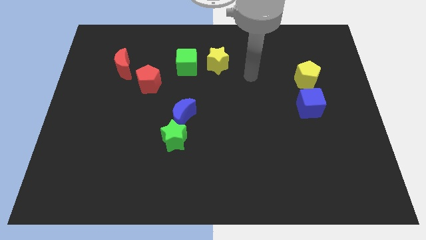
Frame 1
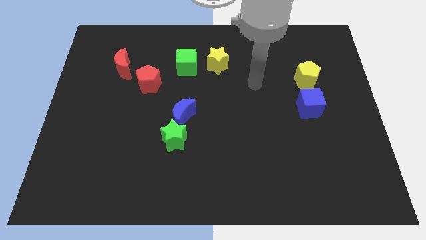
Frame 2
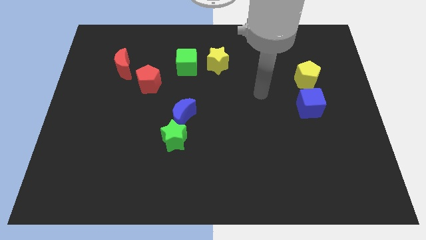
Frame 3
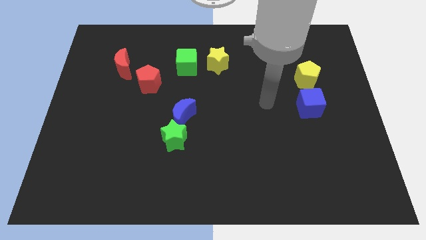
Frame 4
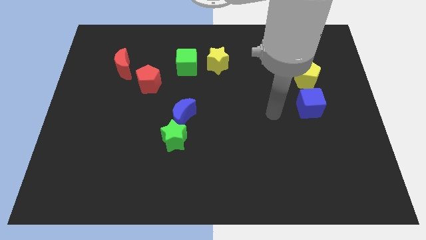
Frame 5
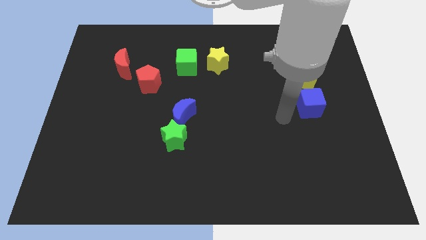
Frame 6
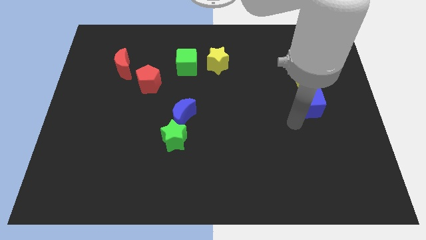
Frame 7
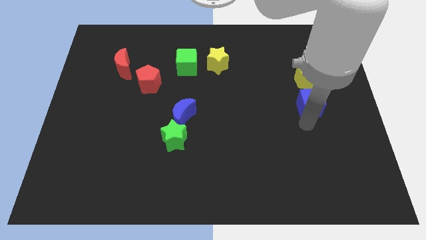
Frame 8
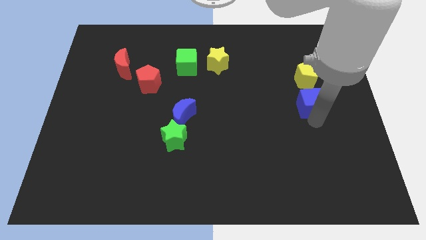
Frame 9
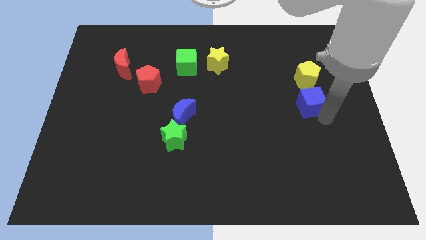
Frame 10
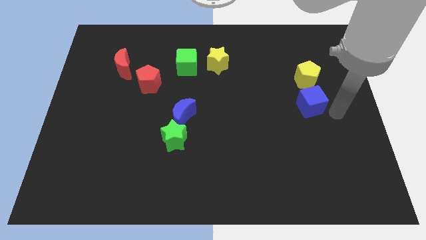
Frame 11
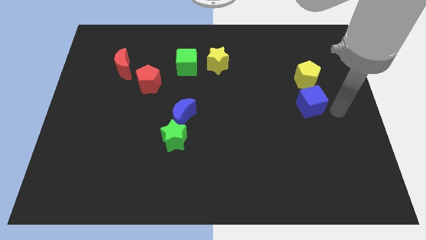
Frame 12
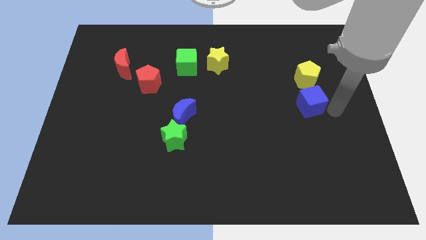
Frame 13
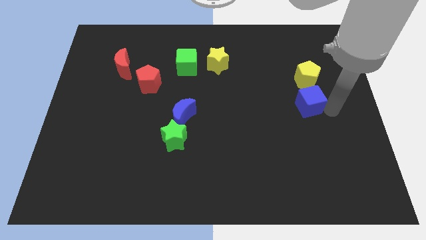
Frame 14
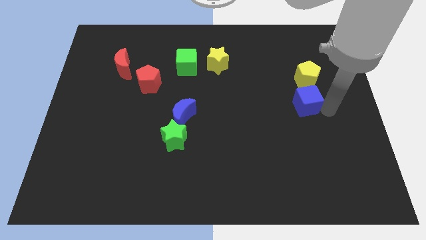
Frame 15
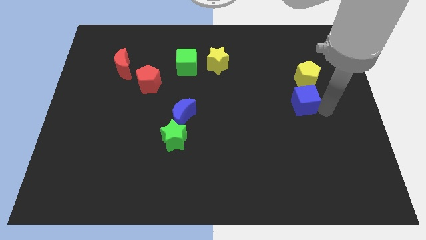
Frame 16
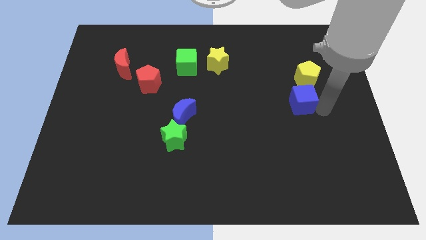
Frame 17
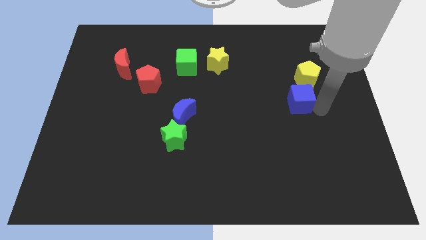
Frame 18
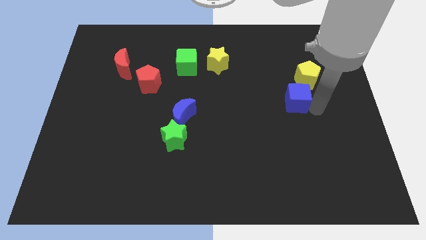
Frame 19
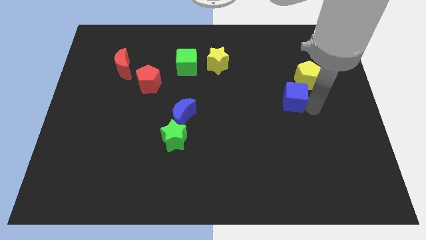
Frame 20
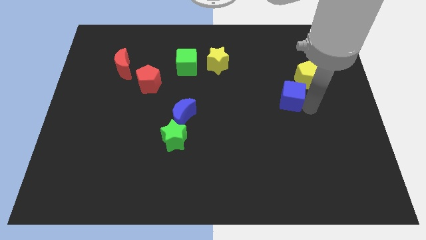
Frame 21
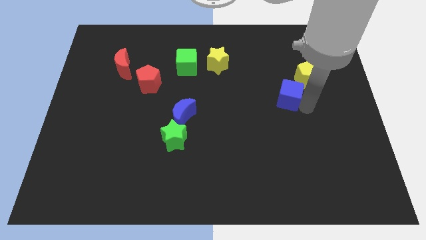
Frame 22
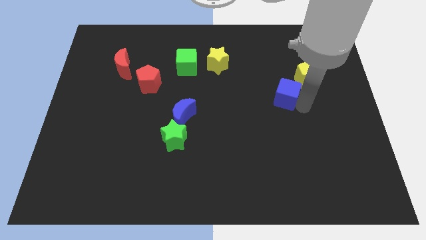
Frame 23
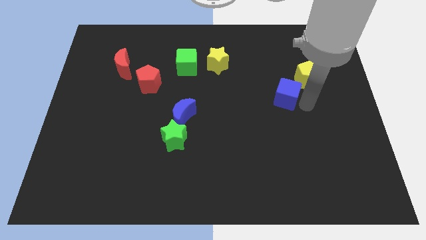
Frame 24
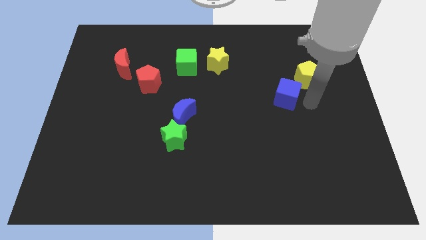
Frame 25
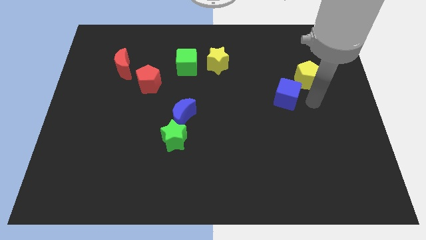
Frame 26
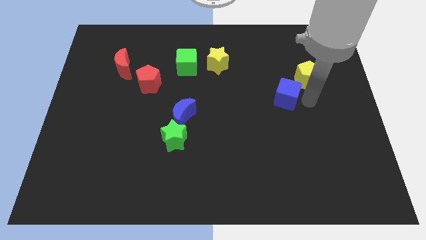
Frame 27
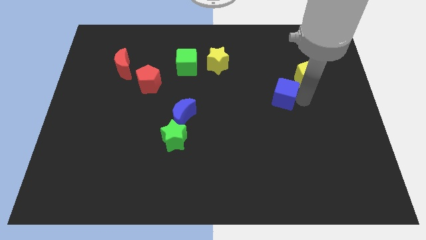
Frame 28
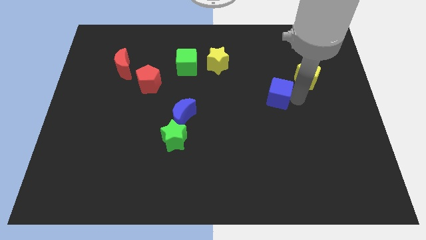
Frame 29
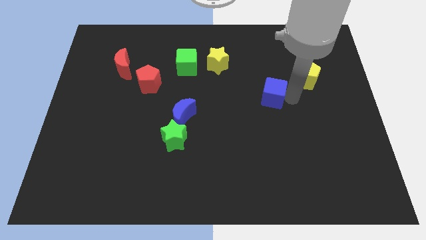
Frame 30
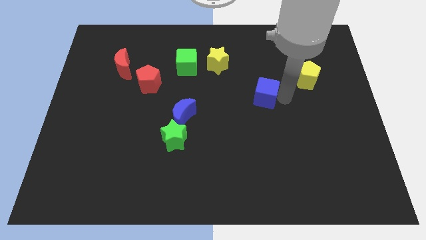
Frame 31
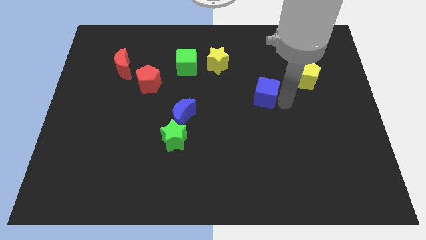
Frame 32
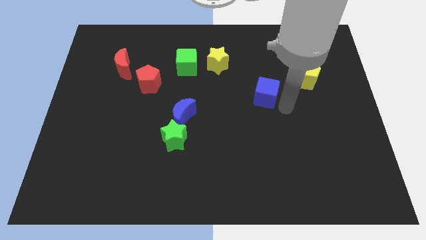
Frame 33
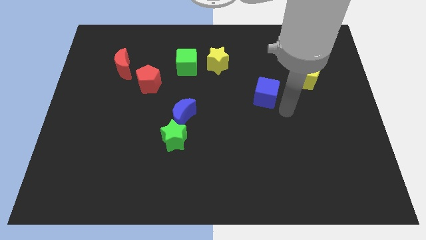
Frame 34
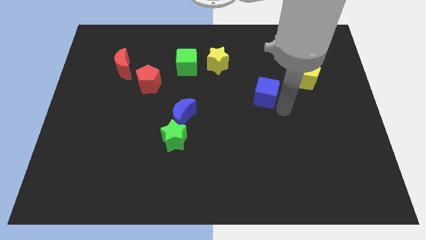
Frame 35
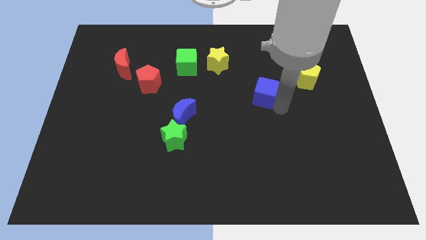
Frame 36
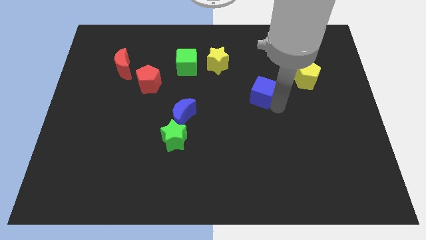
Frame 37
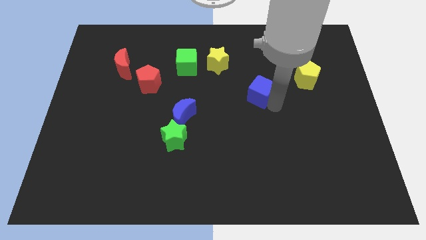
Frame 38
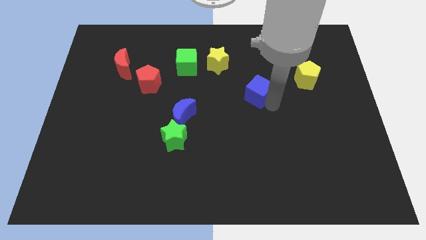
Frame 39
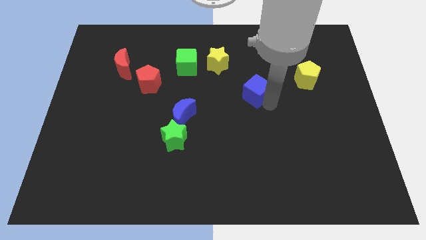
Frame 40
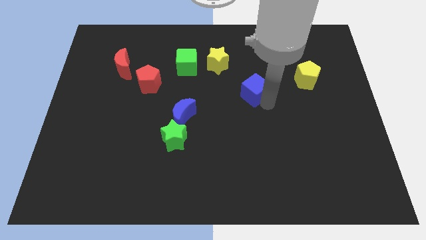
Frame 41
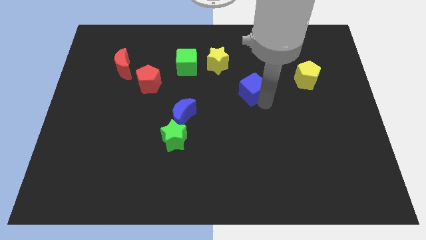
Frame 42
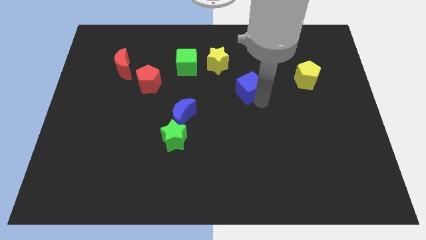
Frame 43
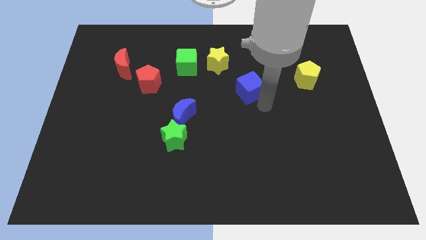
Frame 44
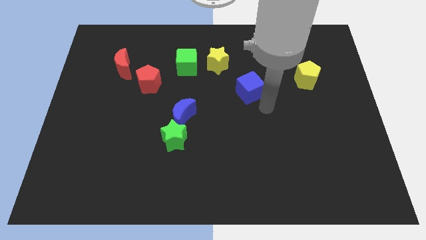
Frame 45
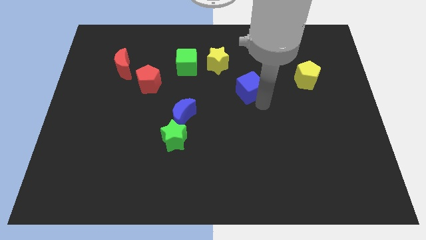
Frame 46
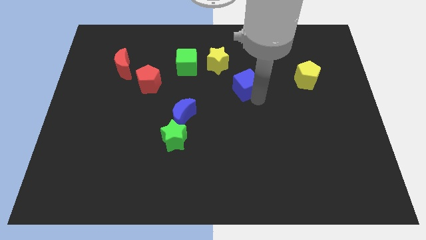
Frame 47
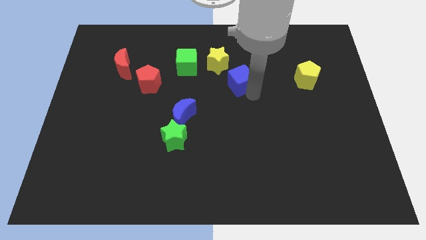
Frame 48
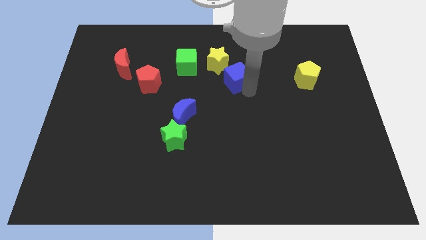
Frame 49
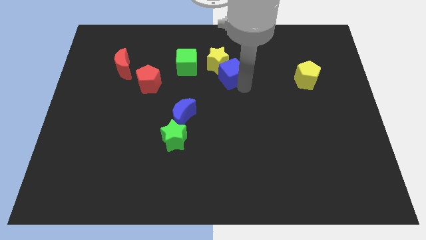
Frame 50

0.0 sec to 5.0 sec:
push the blue cube towards the yellow star

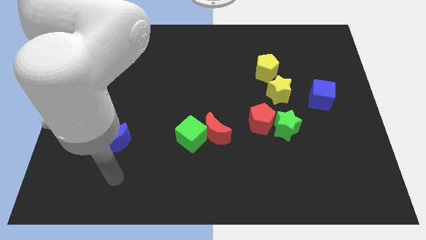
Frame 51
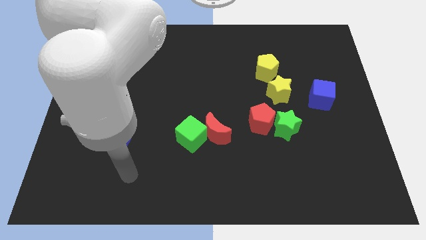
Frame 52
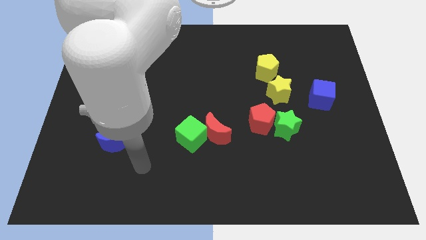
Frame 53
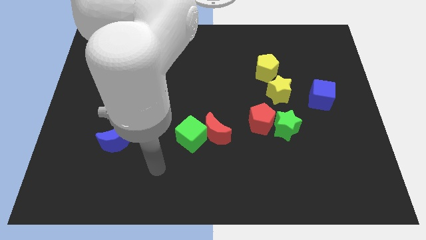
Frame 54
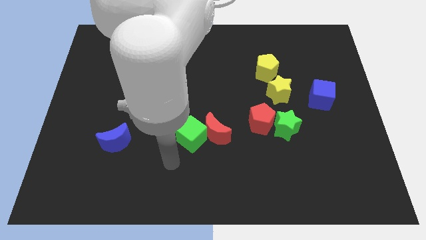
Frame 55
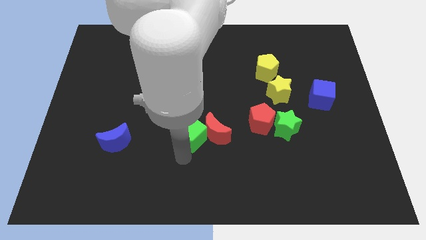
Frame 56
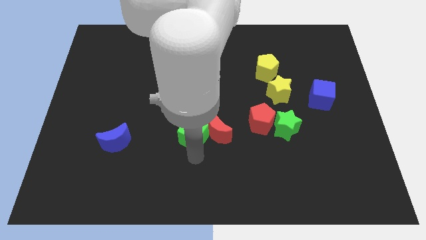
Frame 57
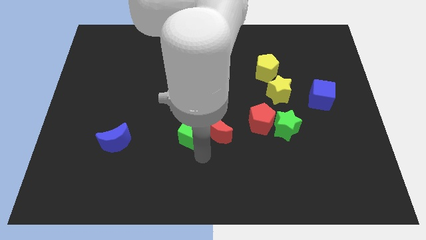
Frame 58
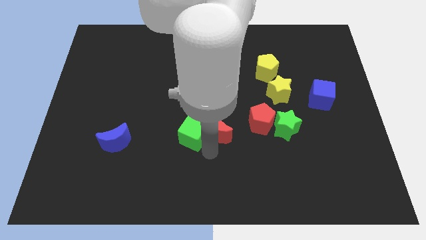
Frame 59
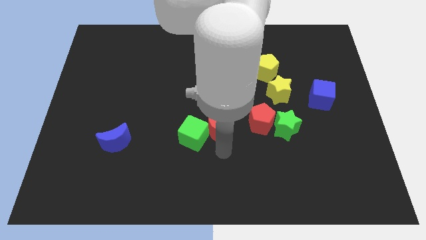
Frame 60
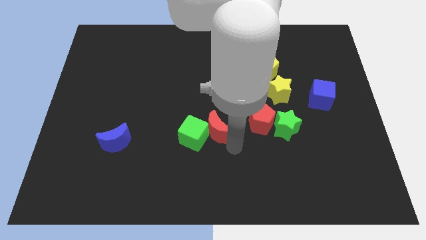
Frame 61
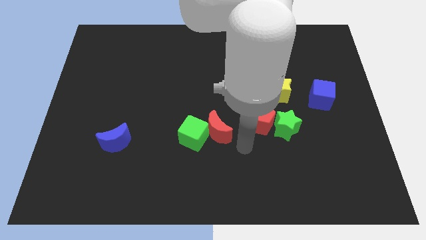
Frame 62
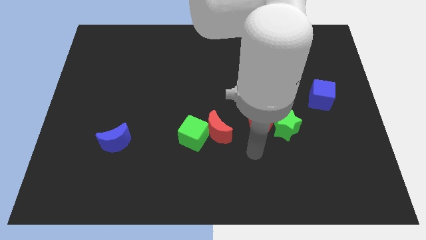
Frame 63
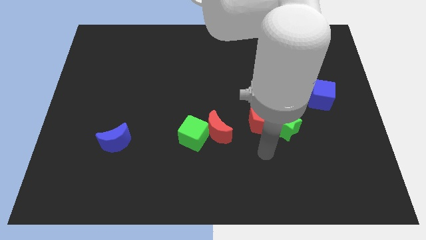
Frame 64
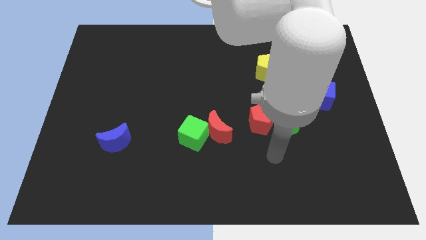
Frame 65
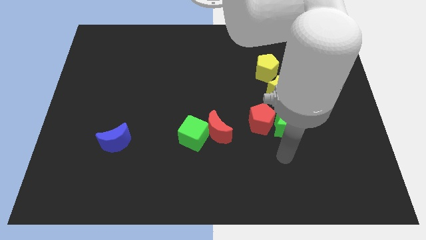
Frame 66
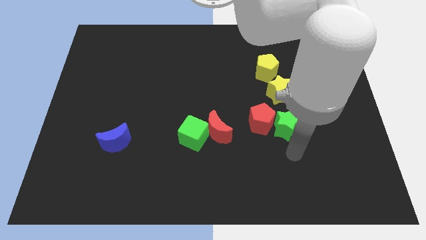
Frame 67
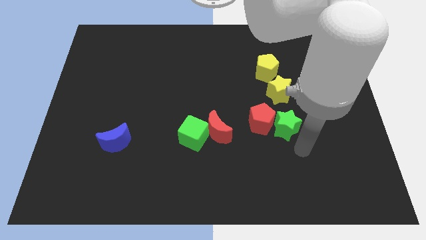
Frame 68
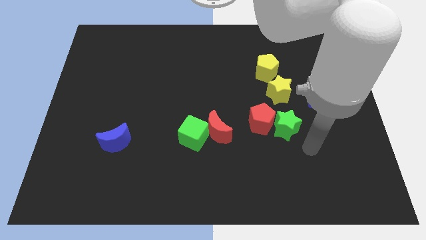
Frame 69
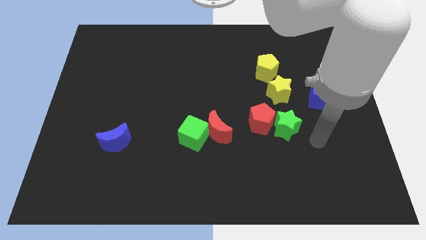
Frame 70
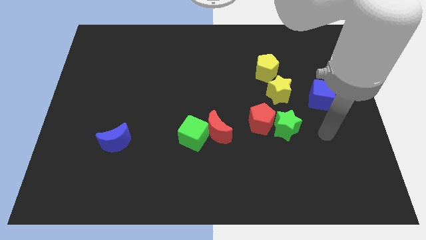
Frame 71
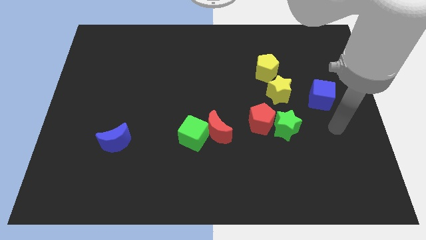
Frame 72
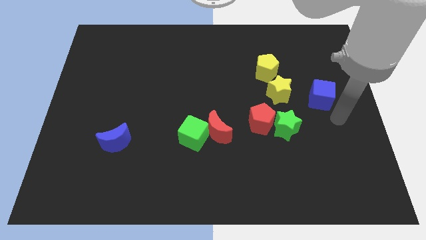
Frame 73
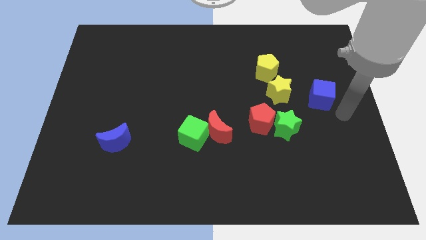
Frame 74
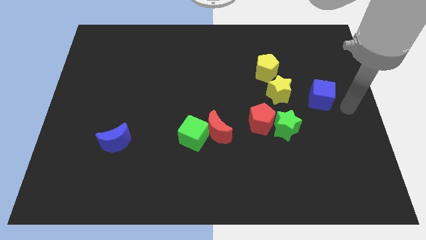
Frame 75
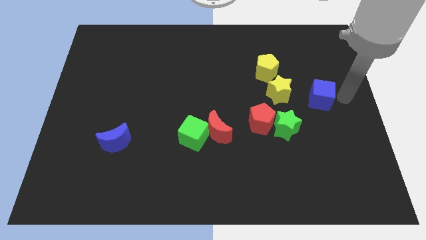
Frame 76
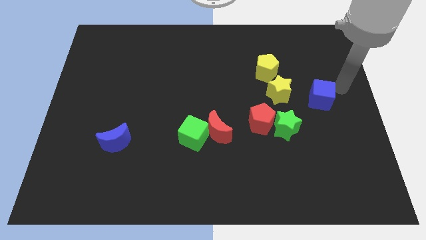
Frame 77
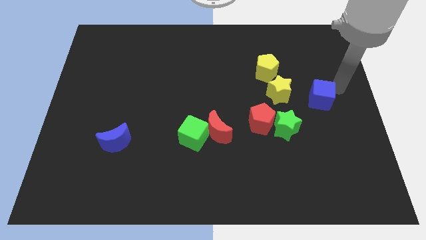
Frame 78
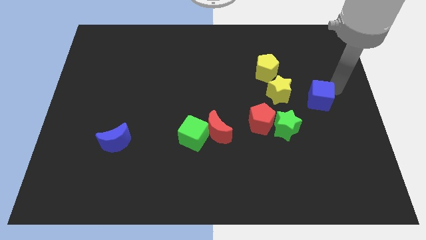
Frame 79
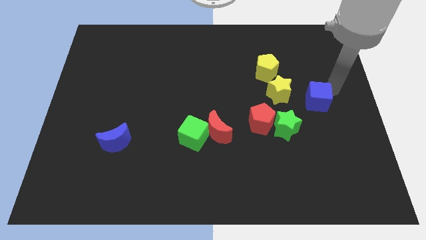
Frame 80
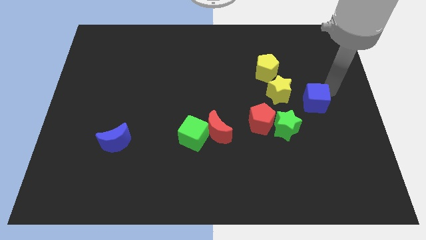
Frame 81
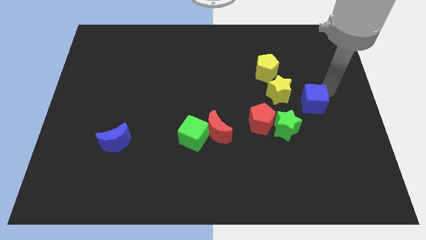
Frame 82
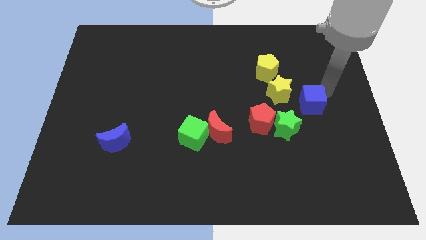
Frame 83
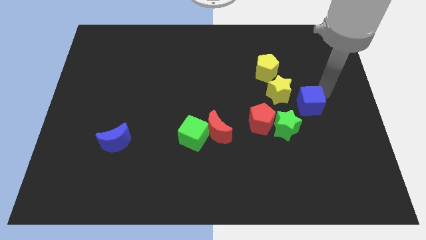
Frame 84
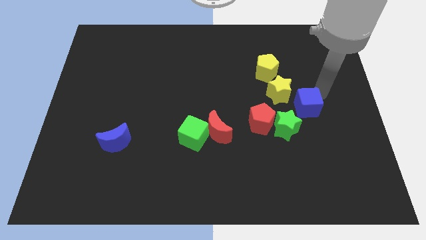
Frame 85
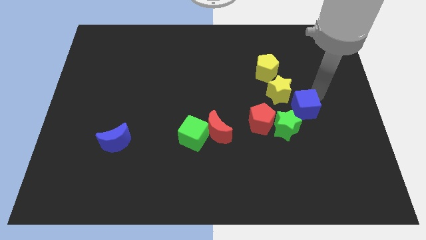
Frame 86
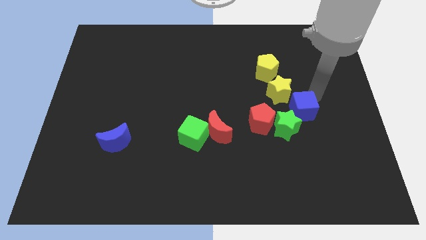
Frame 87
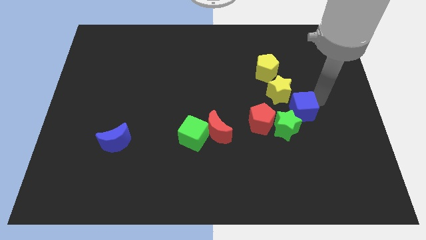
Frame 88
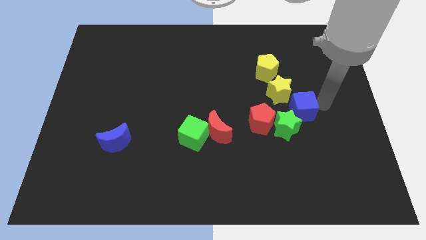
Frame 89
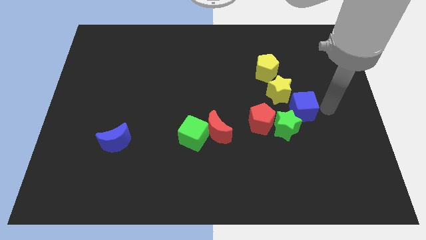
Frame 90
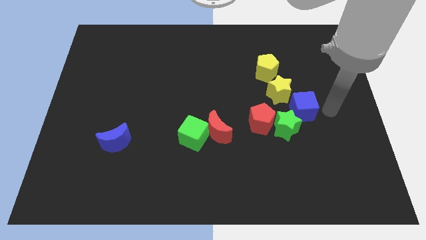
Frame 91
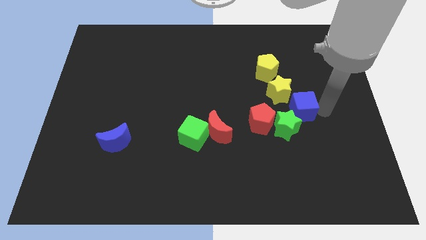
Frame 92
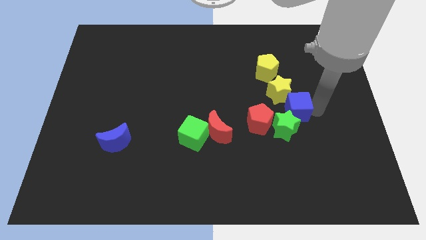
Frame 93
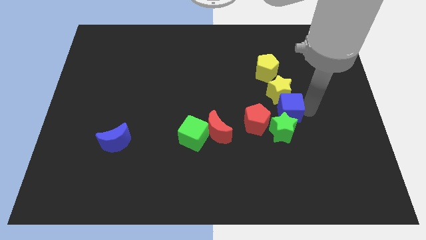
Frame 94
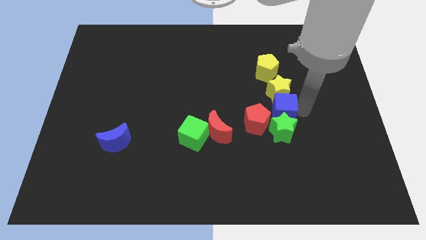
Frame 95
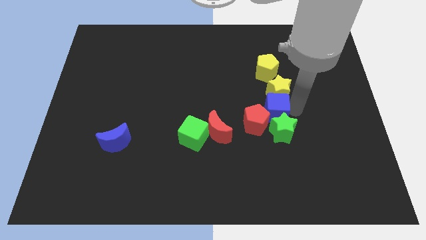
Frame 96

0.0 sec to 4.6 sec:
put the blue cube to the red pentagon
